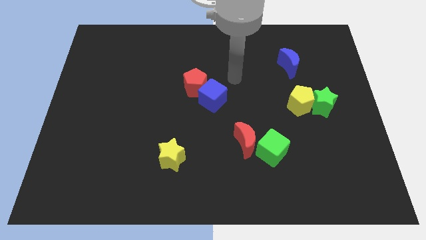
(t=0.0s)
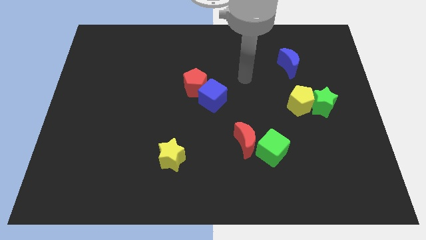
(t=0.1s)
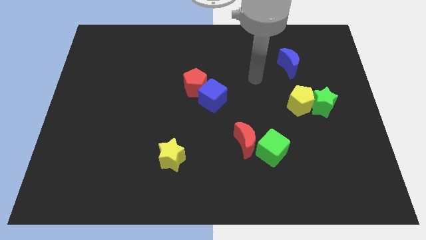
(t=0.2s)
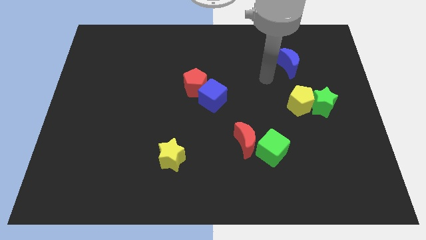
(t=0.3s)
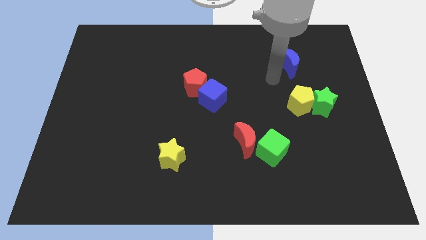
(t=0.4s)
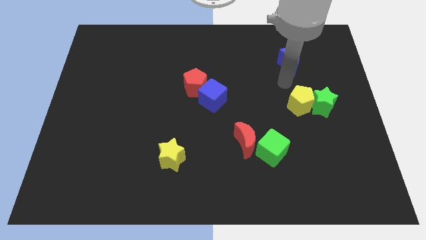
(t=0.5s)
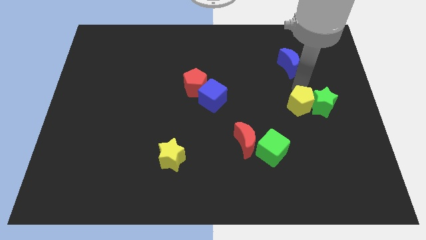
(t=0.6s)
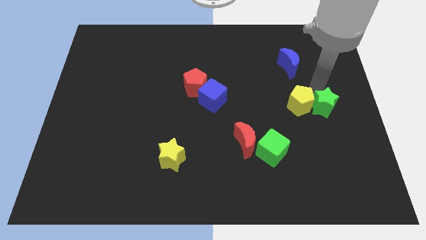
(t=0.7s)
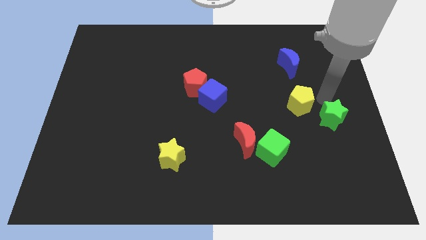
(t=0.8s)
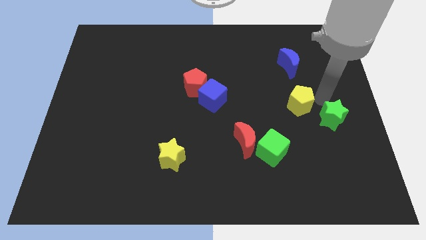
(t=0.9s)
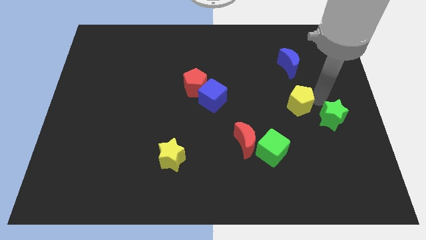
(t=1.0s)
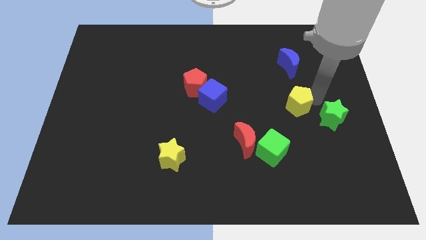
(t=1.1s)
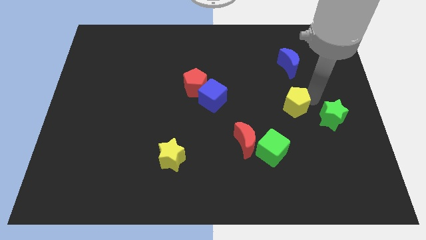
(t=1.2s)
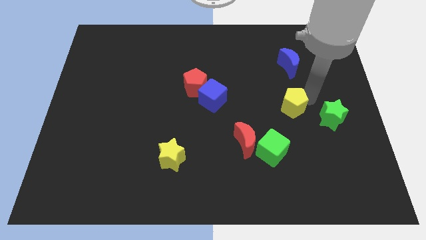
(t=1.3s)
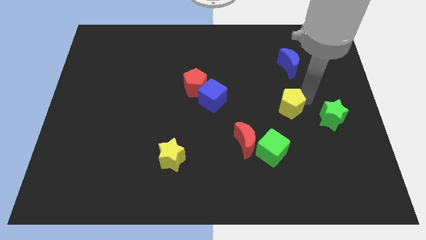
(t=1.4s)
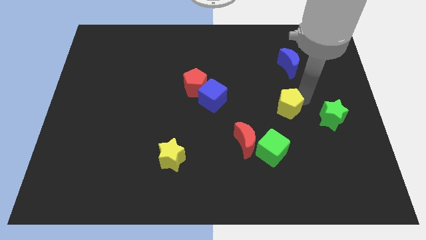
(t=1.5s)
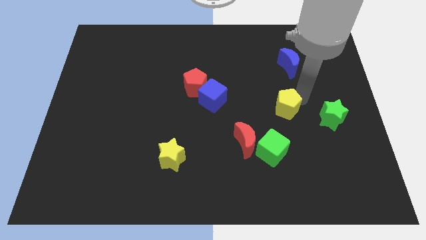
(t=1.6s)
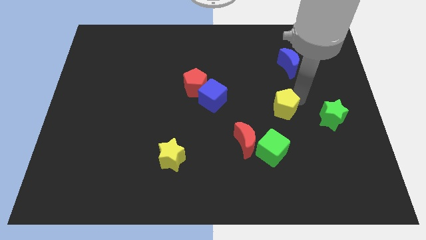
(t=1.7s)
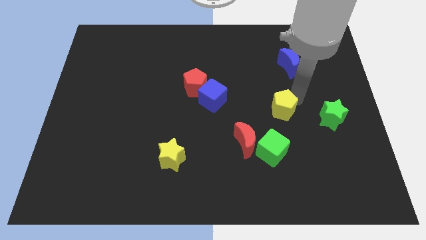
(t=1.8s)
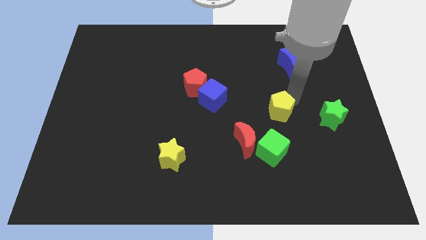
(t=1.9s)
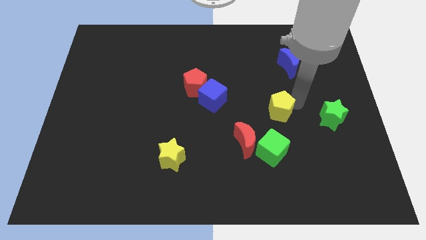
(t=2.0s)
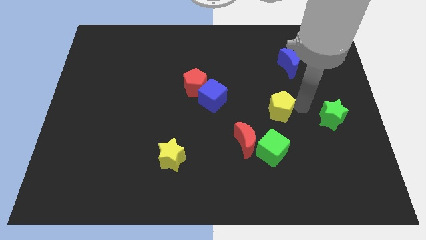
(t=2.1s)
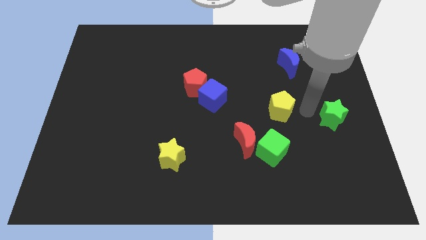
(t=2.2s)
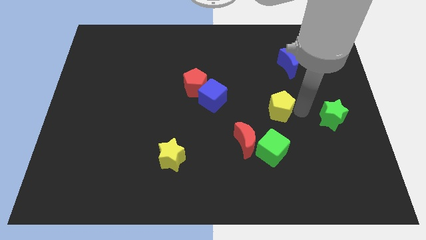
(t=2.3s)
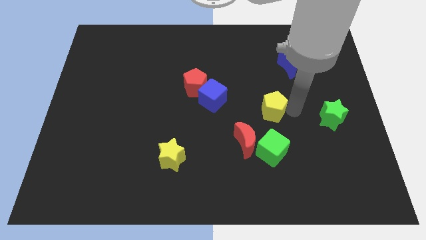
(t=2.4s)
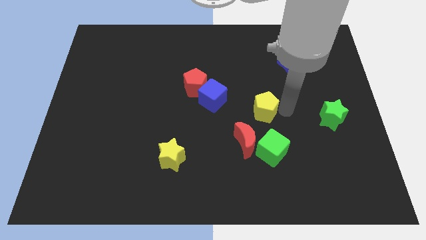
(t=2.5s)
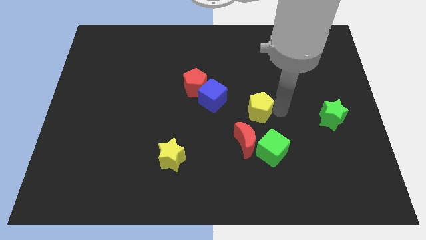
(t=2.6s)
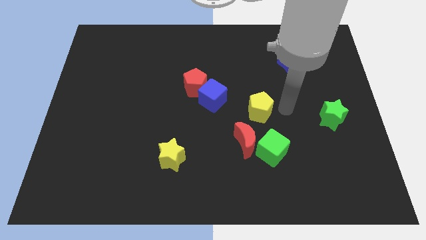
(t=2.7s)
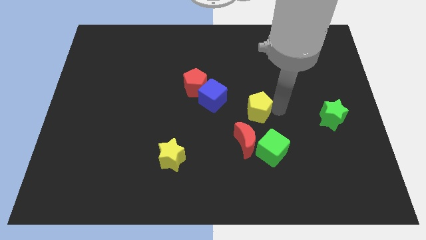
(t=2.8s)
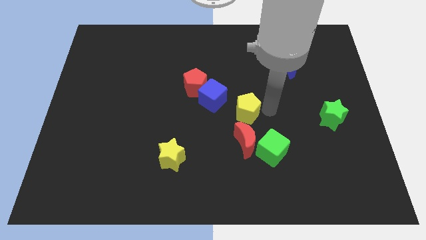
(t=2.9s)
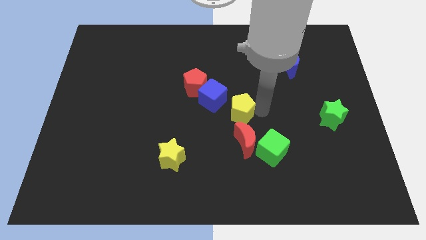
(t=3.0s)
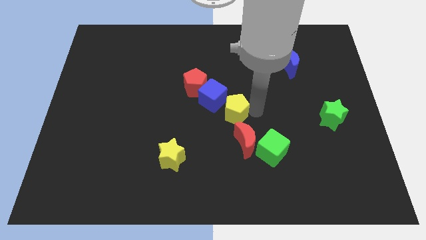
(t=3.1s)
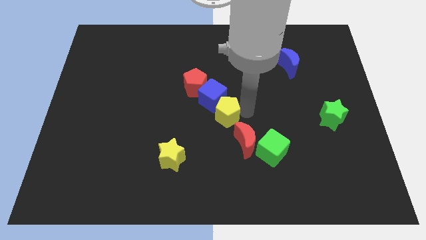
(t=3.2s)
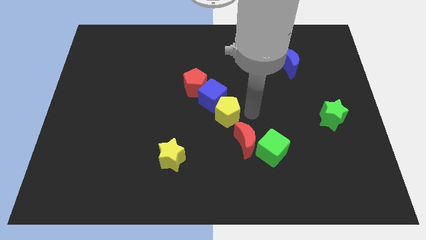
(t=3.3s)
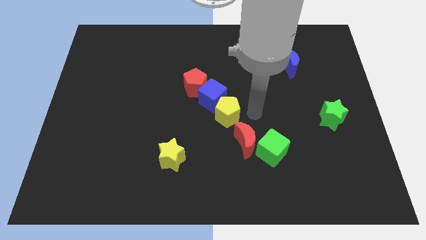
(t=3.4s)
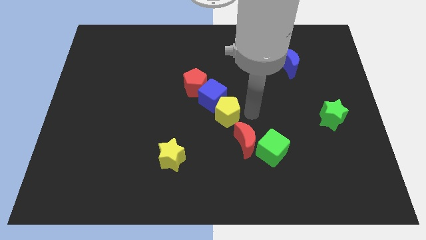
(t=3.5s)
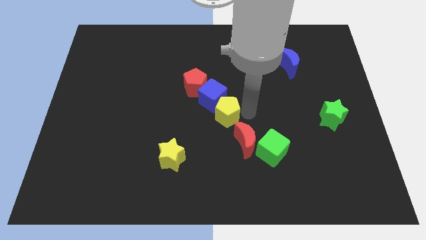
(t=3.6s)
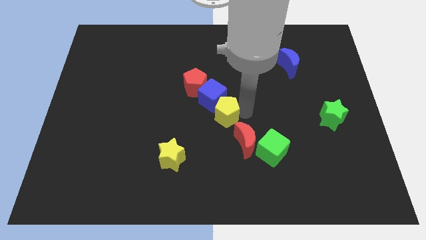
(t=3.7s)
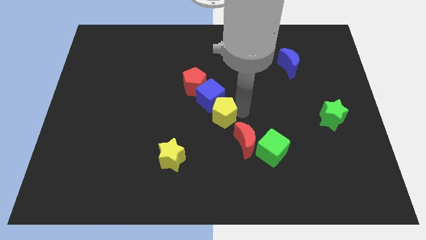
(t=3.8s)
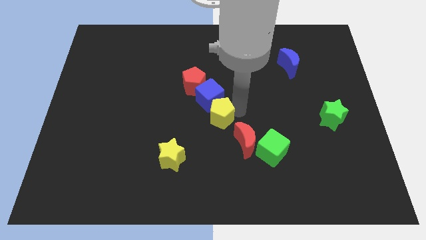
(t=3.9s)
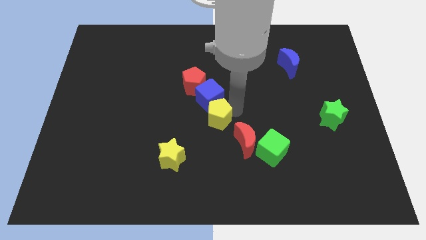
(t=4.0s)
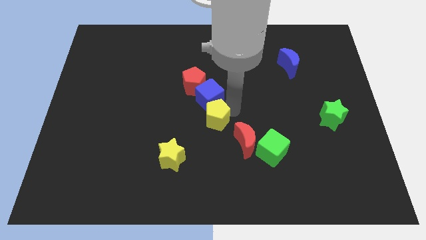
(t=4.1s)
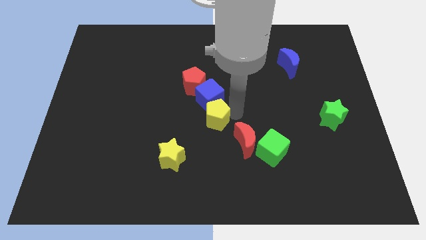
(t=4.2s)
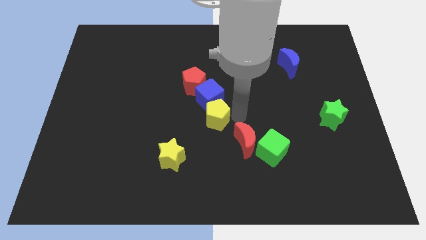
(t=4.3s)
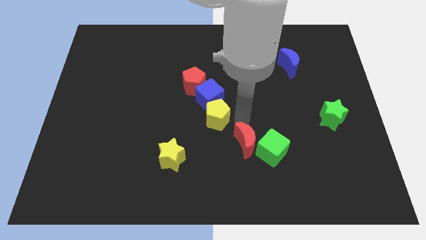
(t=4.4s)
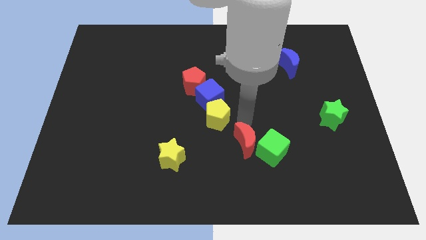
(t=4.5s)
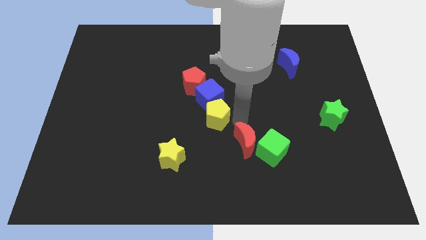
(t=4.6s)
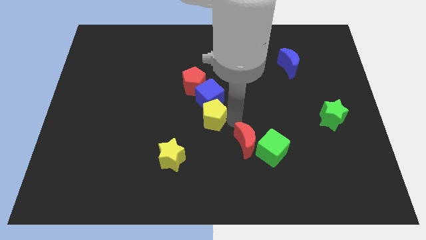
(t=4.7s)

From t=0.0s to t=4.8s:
slide the yellow pentagon left

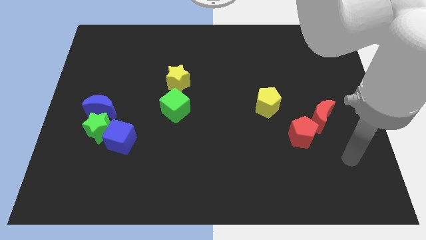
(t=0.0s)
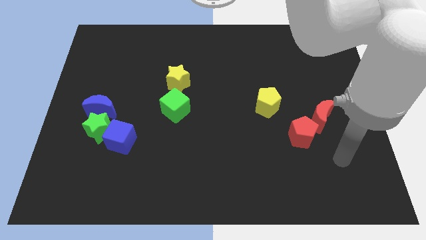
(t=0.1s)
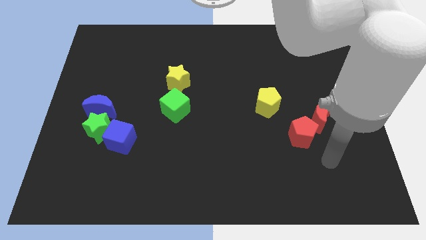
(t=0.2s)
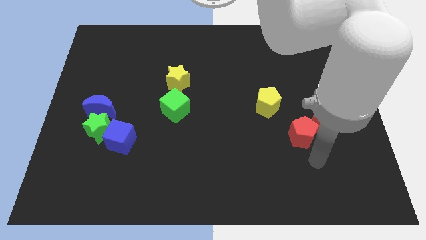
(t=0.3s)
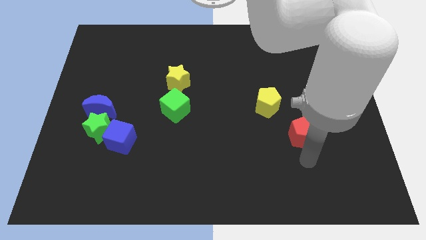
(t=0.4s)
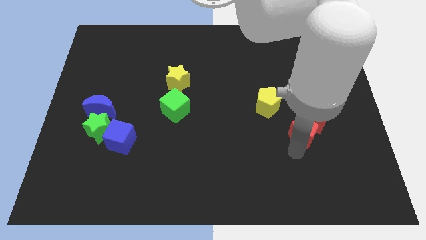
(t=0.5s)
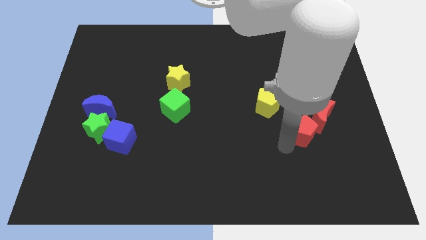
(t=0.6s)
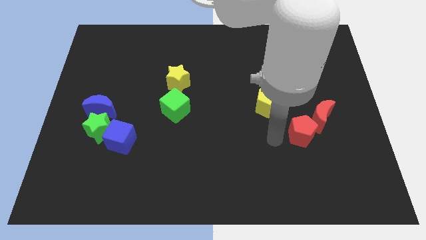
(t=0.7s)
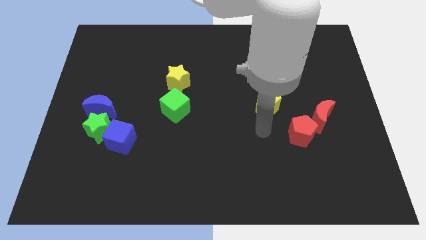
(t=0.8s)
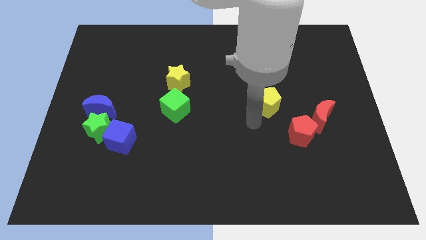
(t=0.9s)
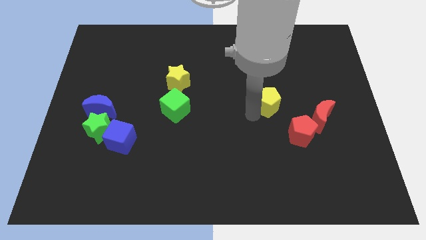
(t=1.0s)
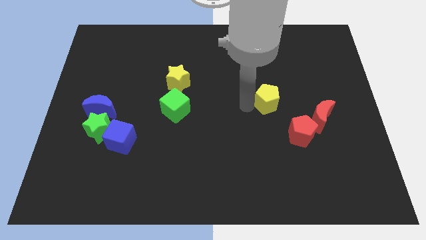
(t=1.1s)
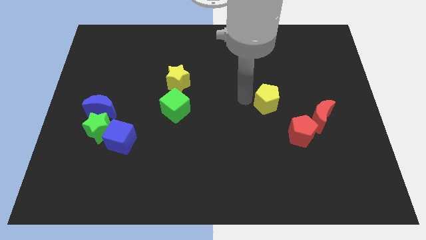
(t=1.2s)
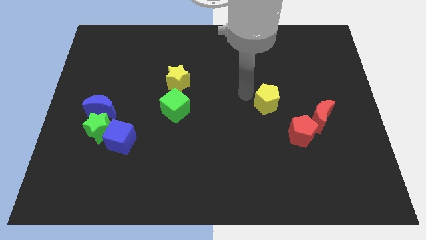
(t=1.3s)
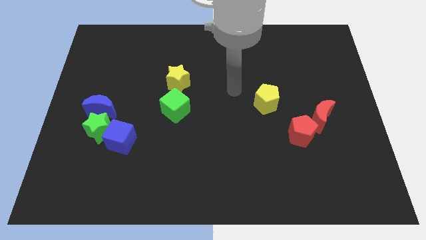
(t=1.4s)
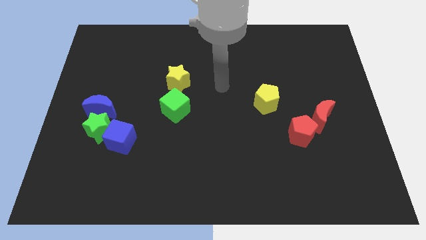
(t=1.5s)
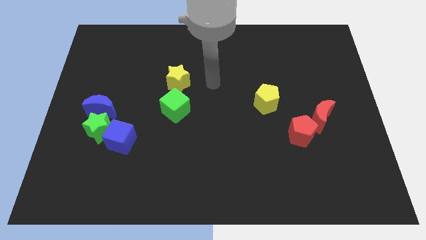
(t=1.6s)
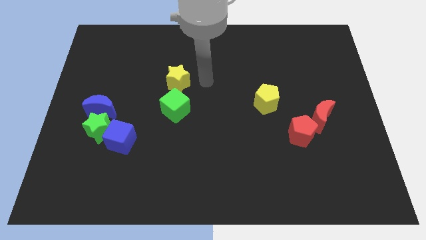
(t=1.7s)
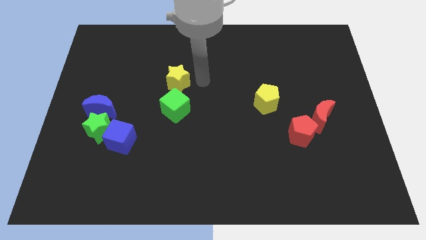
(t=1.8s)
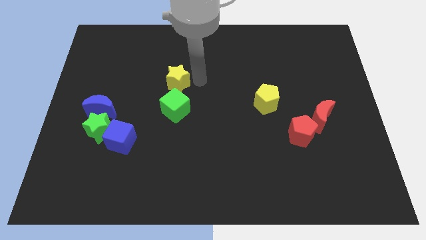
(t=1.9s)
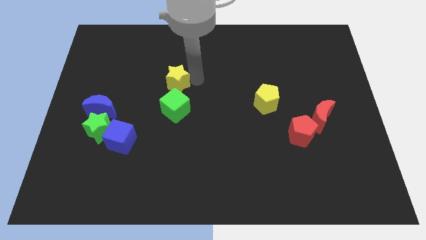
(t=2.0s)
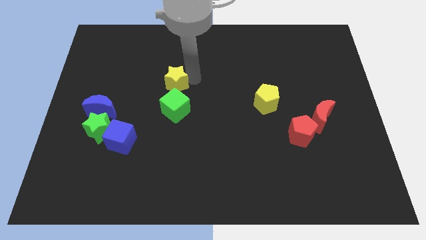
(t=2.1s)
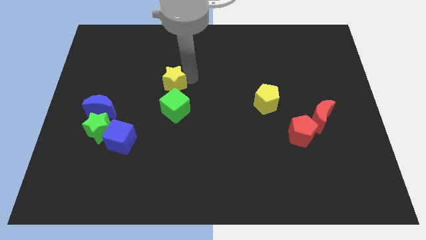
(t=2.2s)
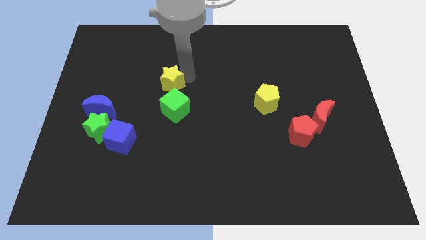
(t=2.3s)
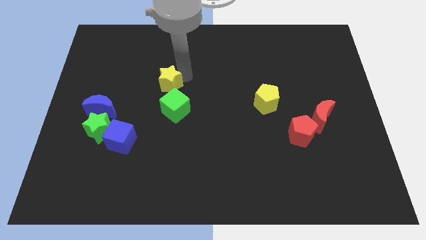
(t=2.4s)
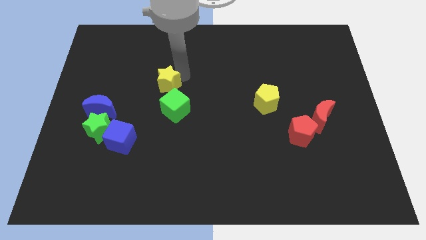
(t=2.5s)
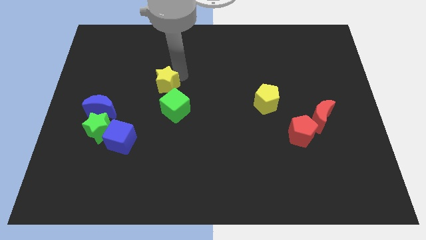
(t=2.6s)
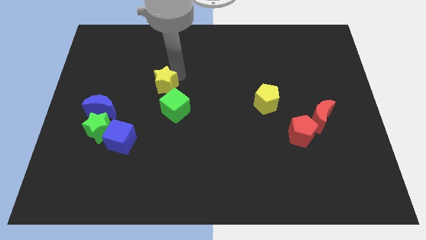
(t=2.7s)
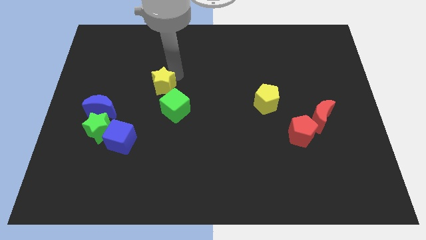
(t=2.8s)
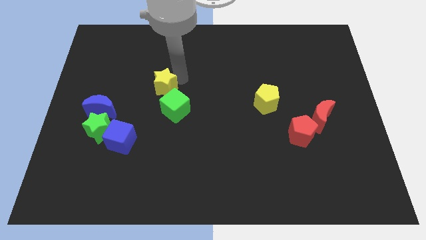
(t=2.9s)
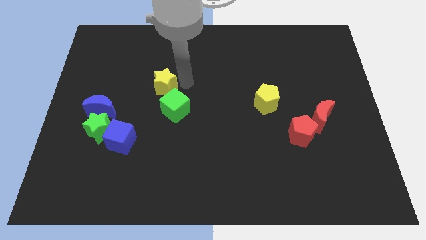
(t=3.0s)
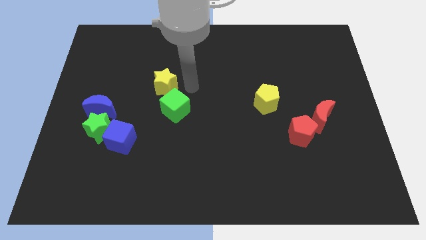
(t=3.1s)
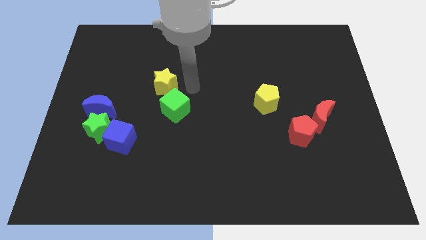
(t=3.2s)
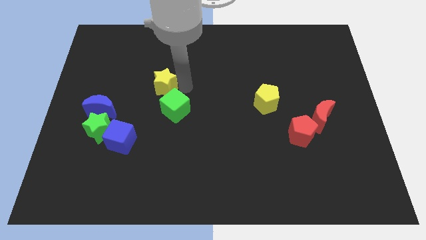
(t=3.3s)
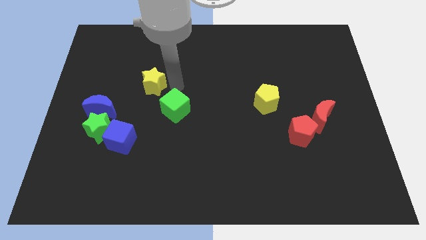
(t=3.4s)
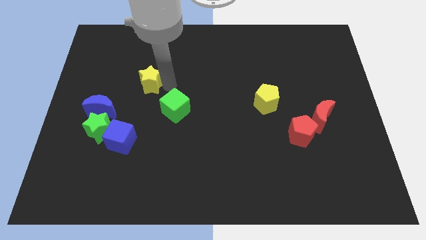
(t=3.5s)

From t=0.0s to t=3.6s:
slightly slide the yellow star to the left
